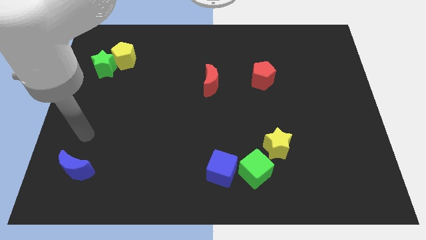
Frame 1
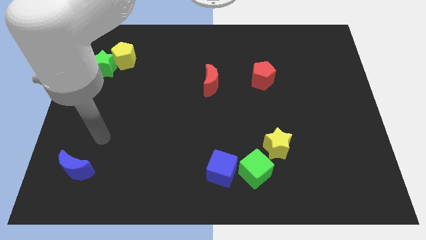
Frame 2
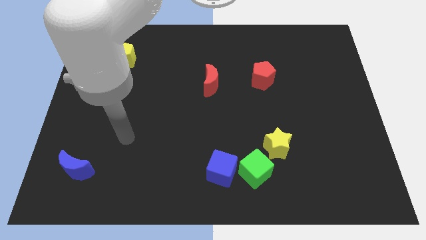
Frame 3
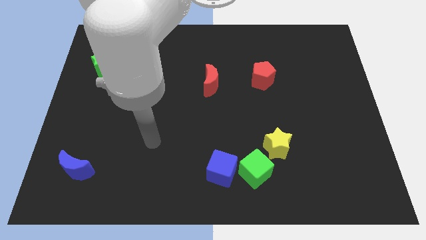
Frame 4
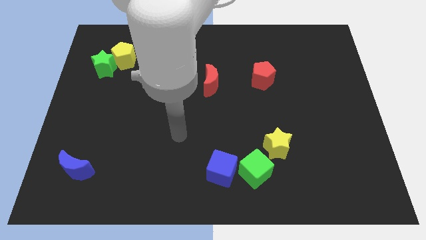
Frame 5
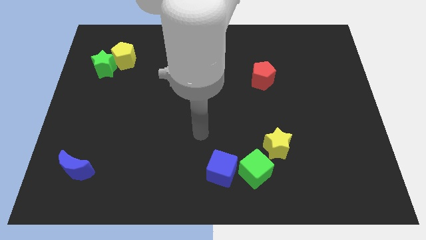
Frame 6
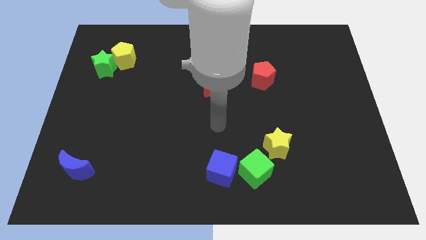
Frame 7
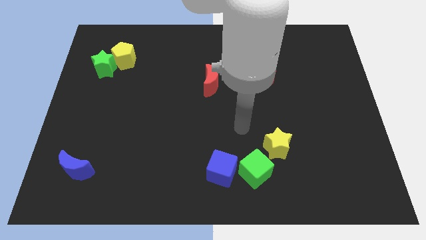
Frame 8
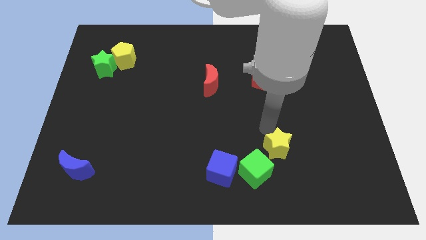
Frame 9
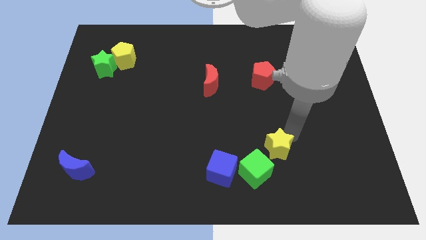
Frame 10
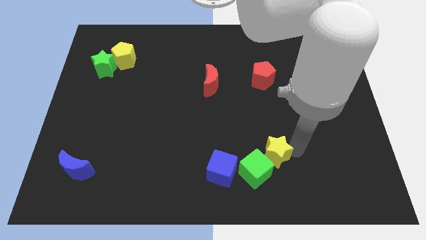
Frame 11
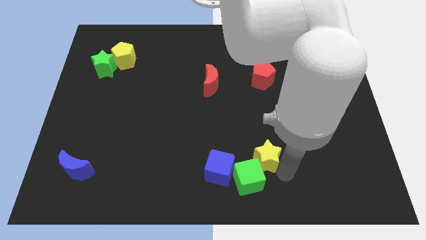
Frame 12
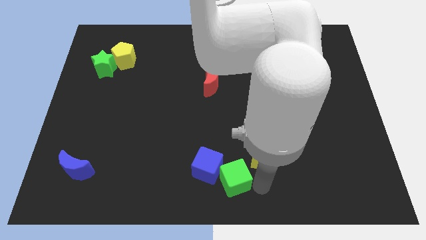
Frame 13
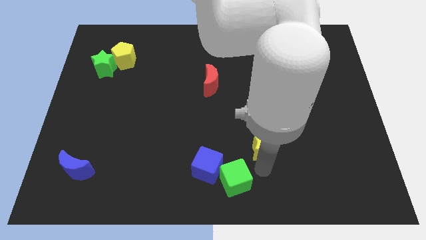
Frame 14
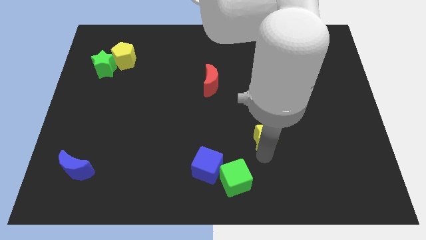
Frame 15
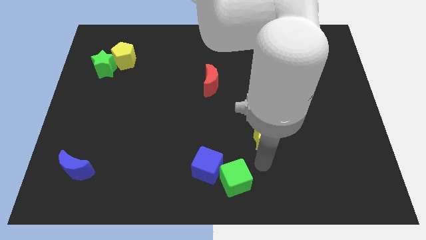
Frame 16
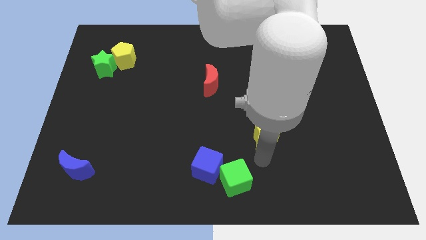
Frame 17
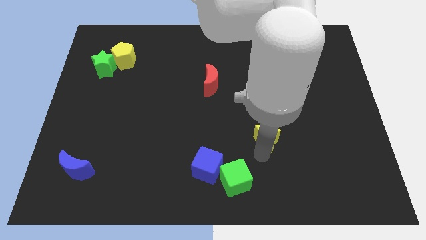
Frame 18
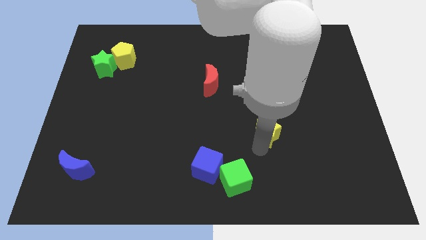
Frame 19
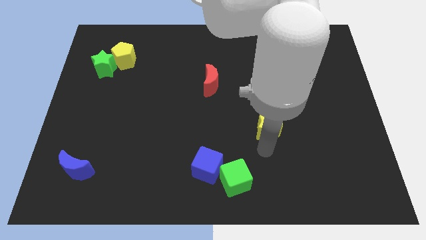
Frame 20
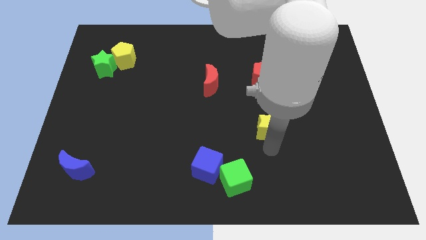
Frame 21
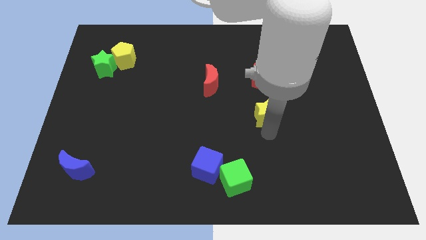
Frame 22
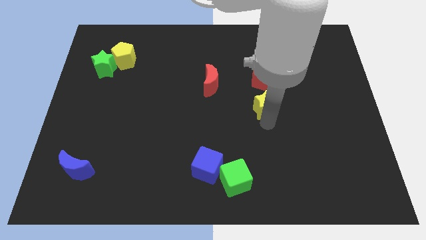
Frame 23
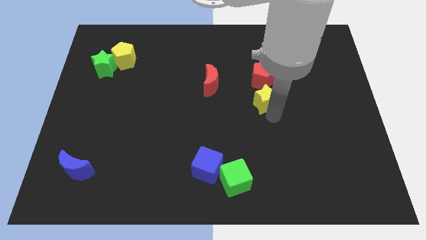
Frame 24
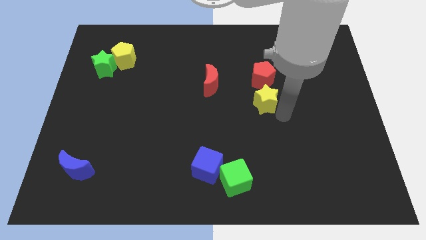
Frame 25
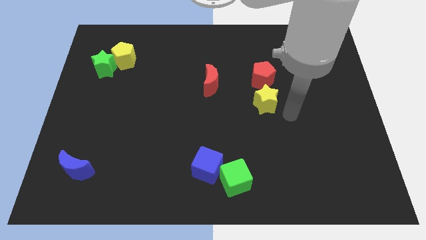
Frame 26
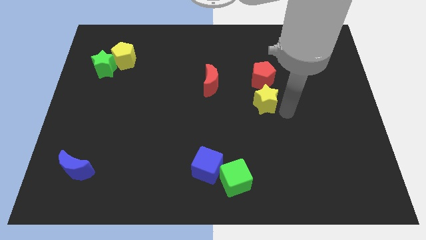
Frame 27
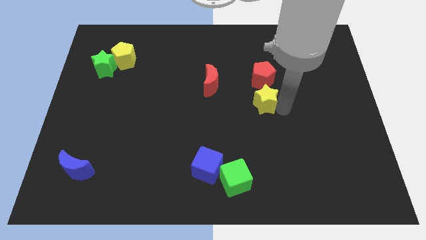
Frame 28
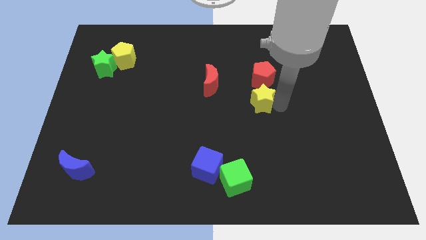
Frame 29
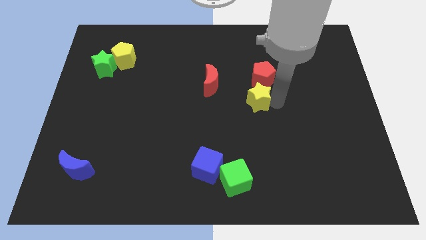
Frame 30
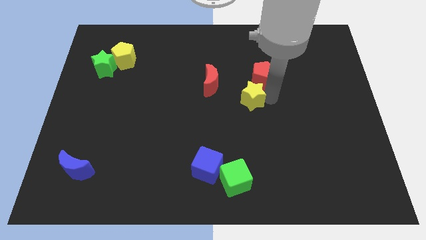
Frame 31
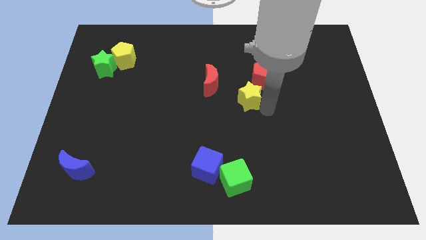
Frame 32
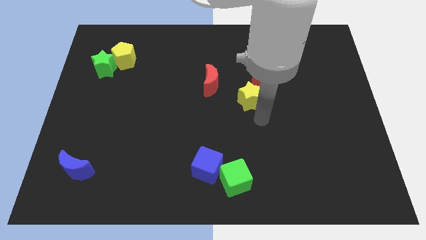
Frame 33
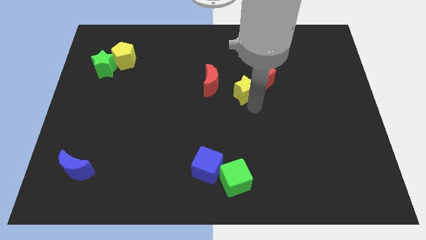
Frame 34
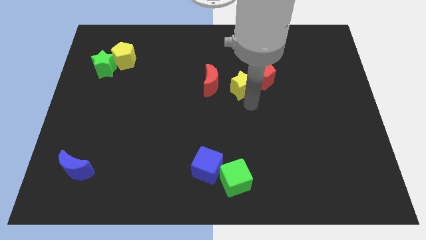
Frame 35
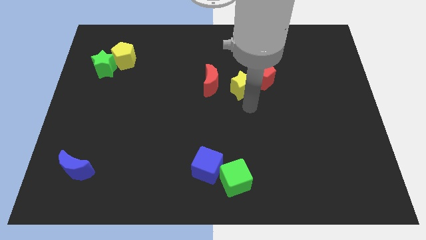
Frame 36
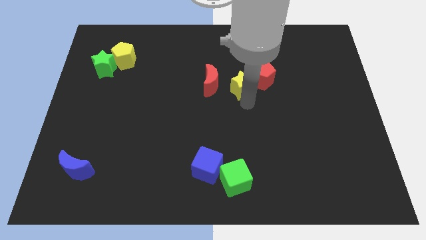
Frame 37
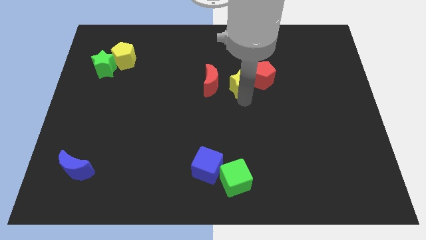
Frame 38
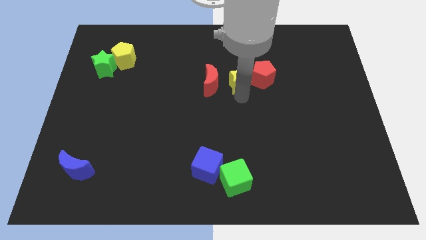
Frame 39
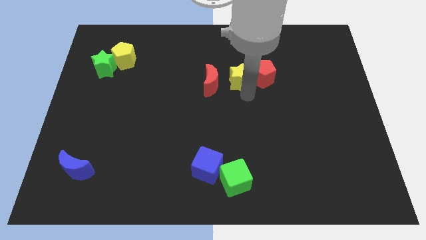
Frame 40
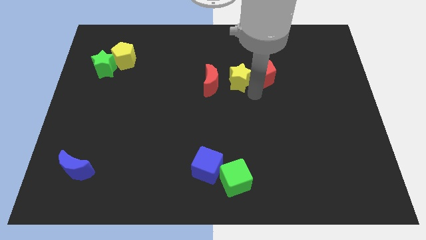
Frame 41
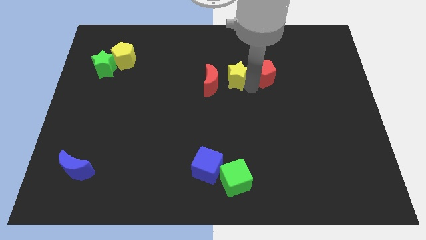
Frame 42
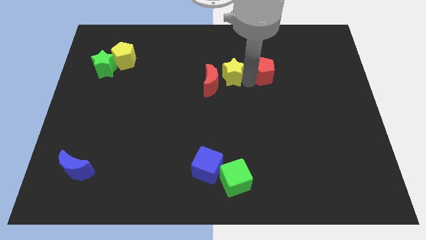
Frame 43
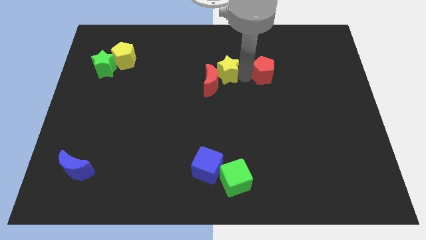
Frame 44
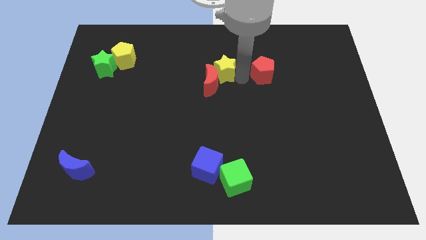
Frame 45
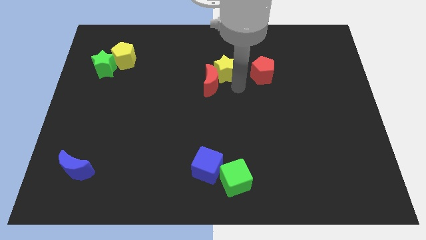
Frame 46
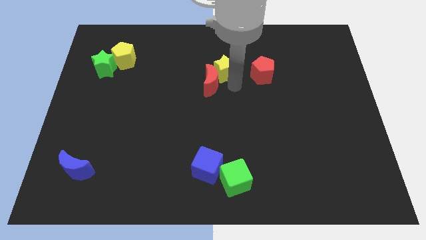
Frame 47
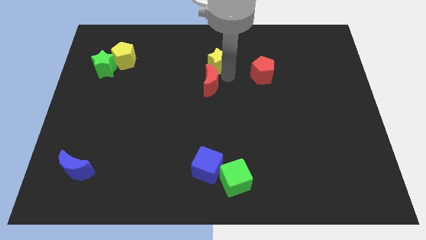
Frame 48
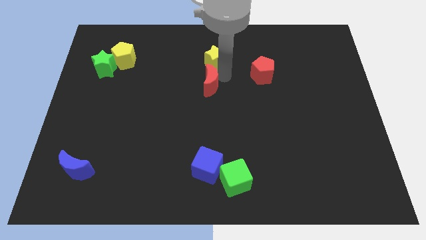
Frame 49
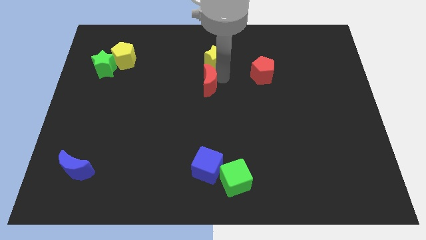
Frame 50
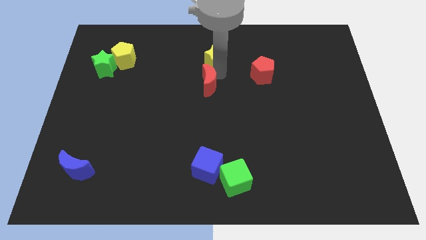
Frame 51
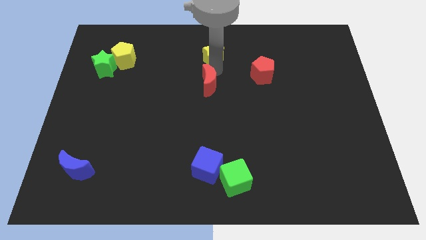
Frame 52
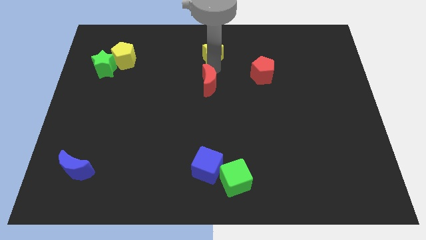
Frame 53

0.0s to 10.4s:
slide the yellow star to the top

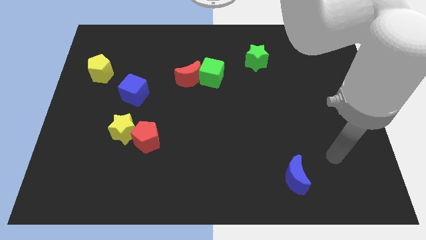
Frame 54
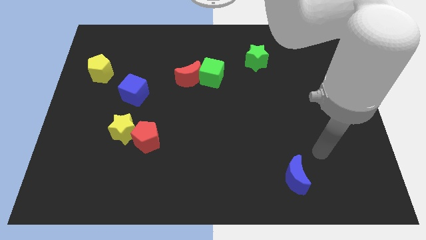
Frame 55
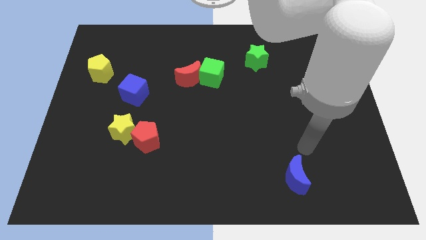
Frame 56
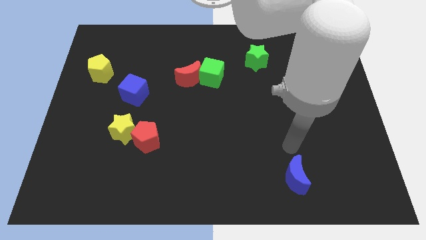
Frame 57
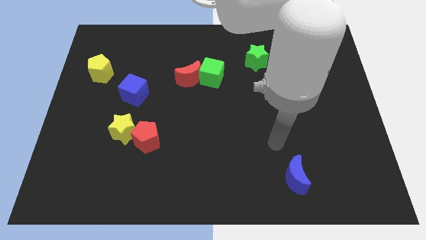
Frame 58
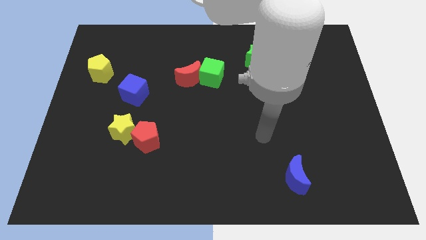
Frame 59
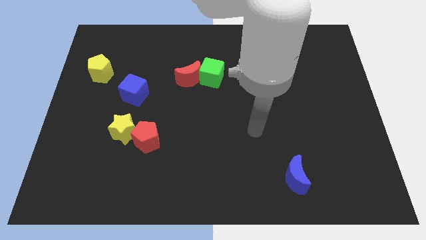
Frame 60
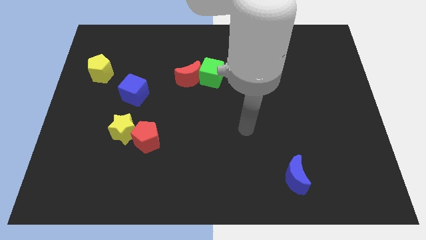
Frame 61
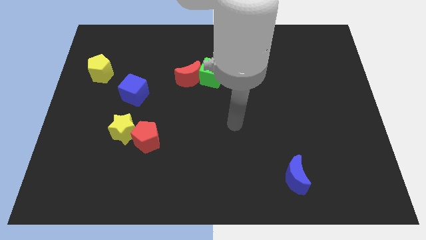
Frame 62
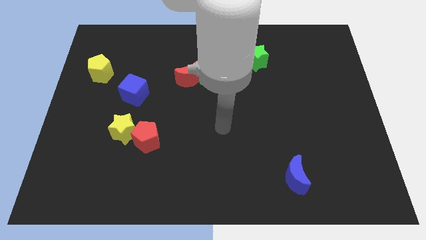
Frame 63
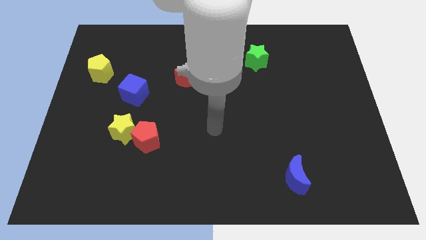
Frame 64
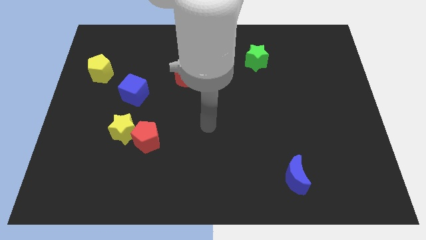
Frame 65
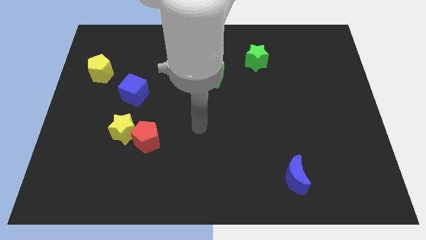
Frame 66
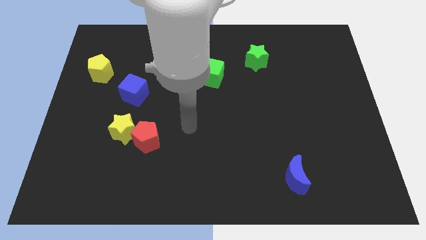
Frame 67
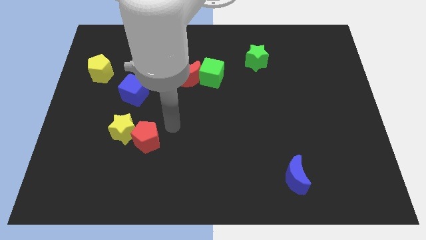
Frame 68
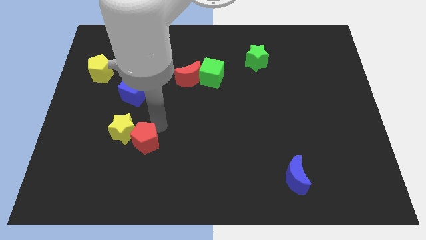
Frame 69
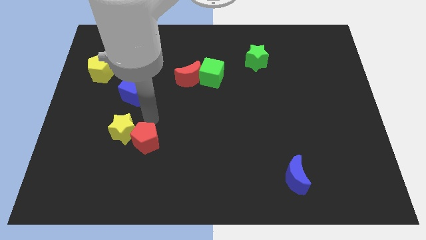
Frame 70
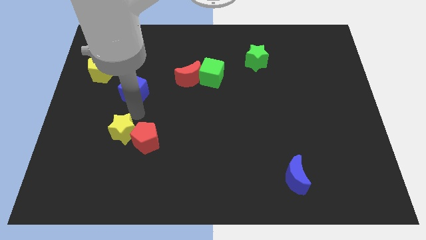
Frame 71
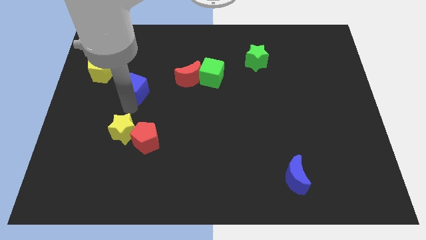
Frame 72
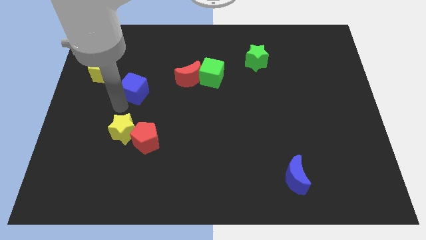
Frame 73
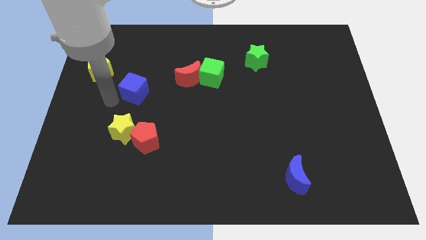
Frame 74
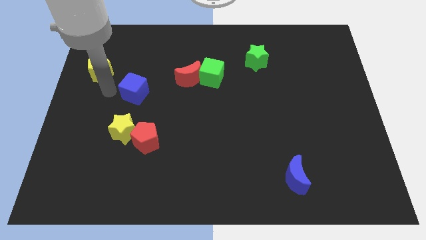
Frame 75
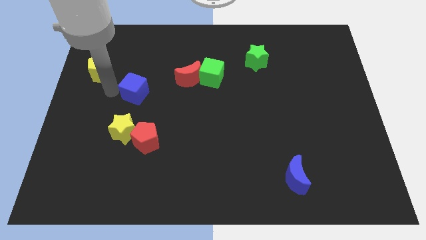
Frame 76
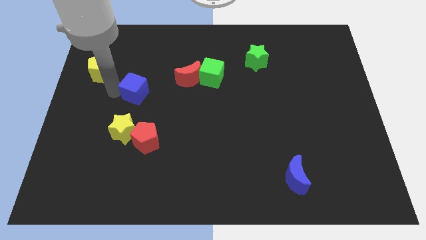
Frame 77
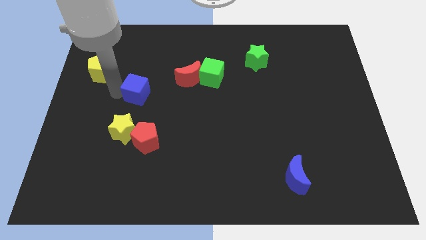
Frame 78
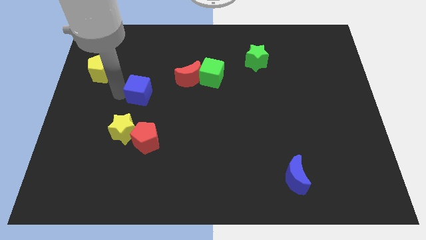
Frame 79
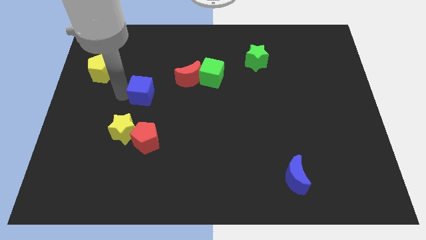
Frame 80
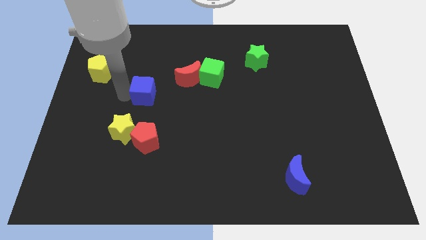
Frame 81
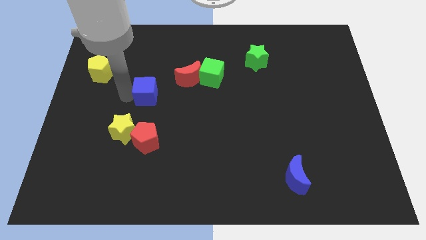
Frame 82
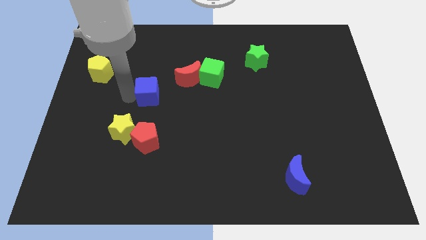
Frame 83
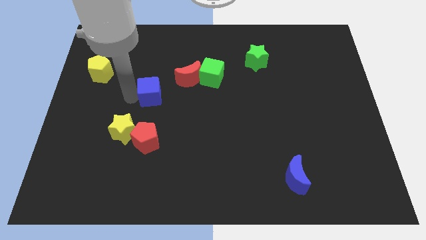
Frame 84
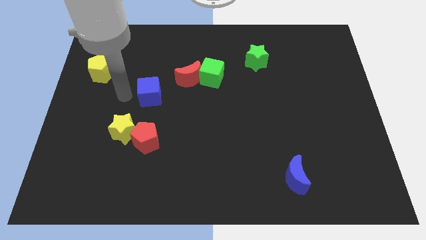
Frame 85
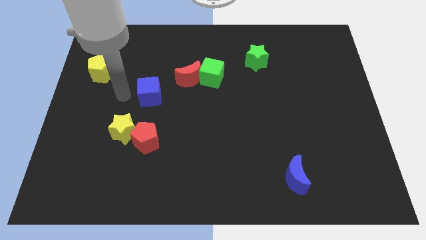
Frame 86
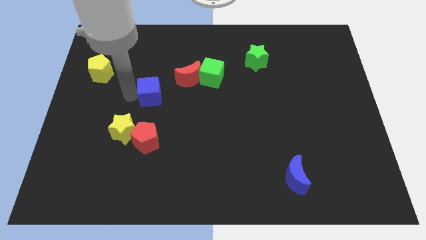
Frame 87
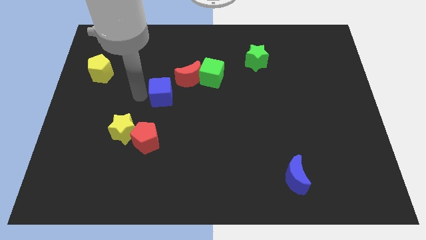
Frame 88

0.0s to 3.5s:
put the blue cube to the middle of the board
